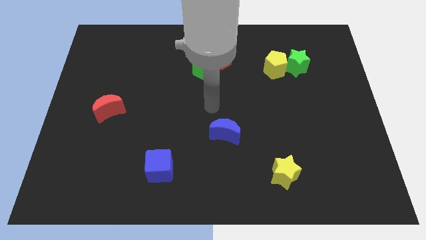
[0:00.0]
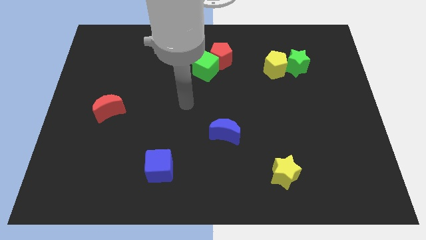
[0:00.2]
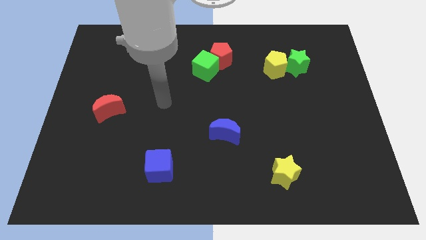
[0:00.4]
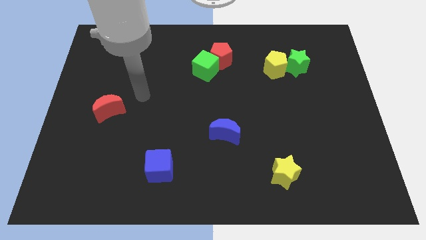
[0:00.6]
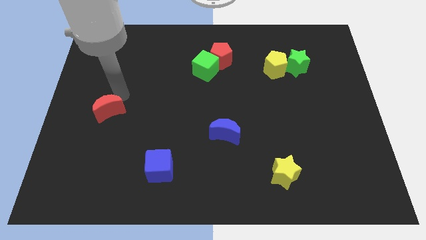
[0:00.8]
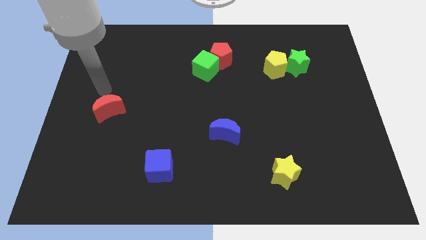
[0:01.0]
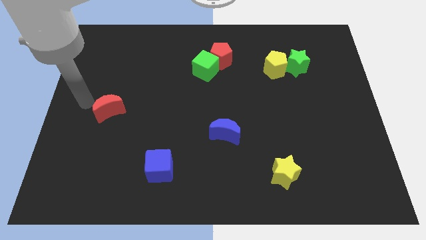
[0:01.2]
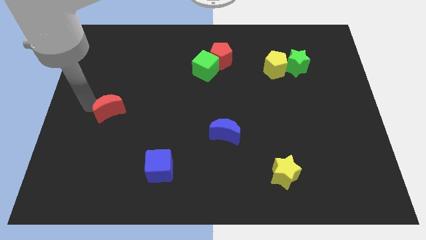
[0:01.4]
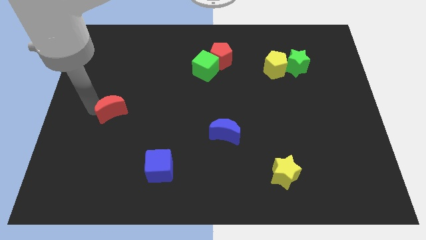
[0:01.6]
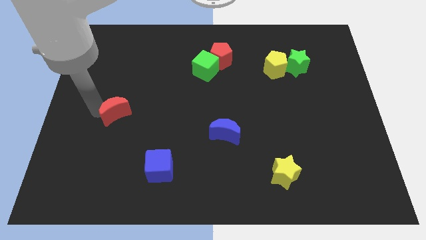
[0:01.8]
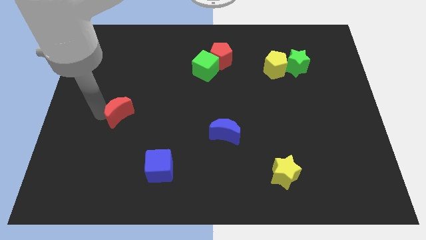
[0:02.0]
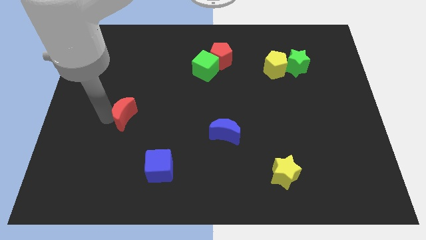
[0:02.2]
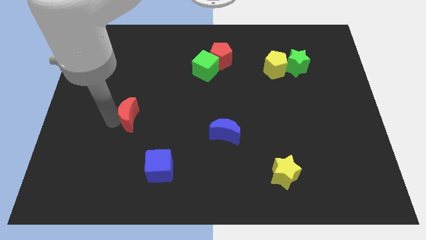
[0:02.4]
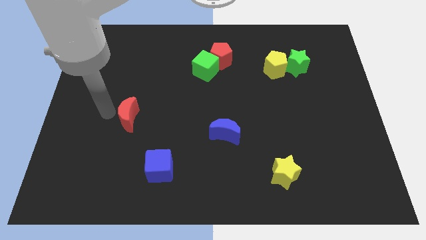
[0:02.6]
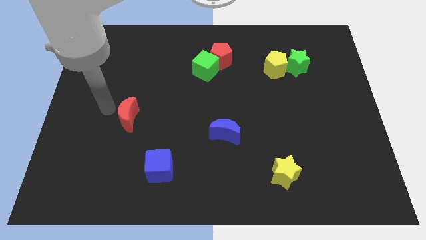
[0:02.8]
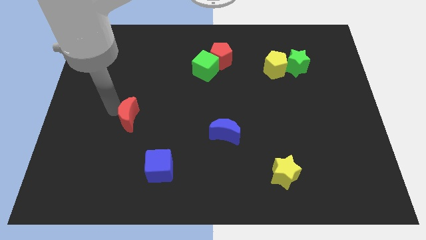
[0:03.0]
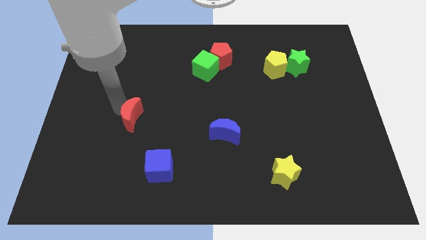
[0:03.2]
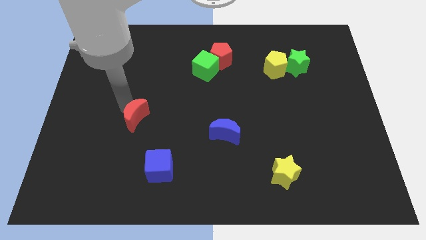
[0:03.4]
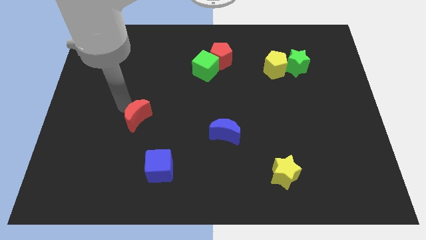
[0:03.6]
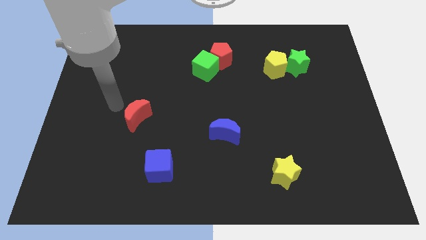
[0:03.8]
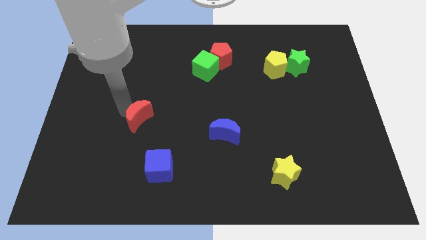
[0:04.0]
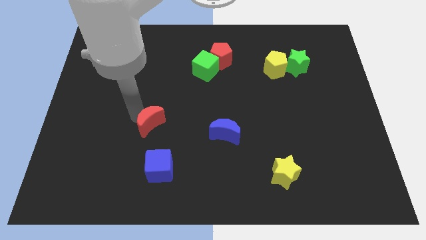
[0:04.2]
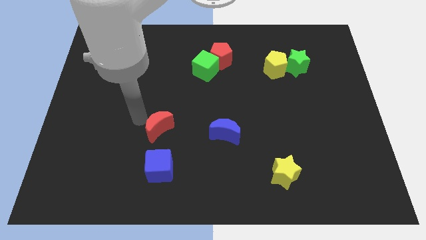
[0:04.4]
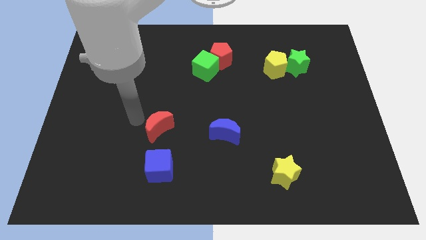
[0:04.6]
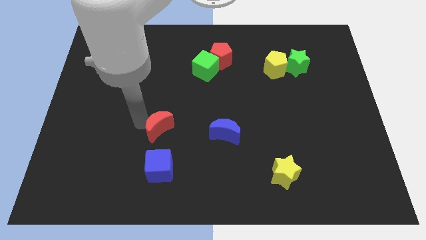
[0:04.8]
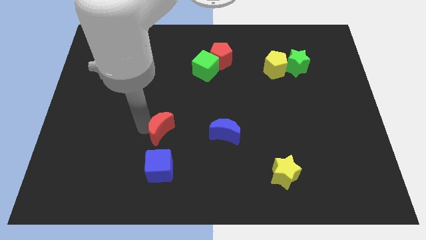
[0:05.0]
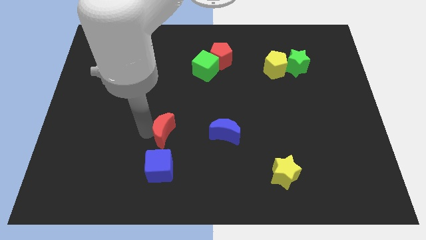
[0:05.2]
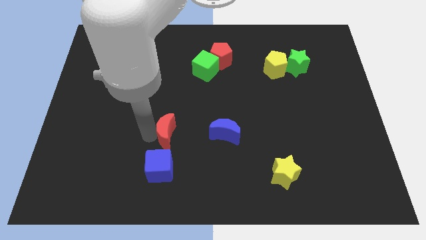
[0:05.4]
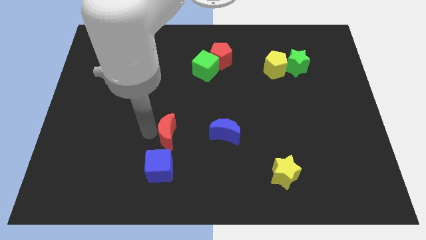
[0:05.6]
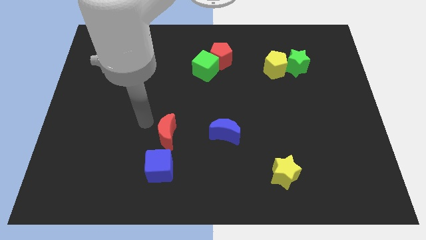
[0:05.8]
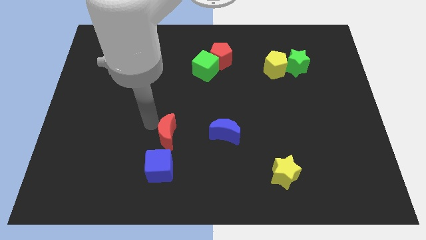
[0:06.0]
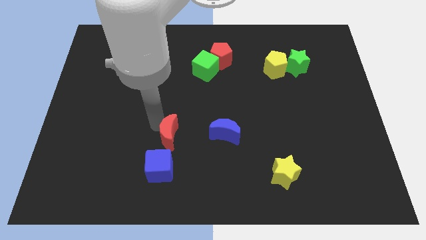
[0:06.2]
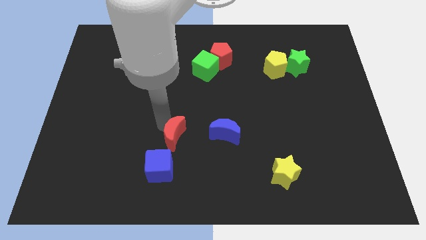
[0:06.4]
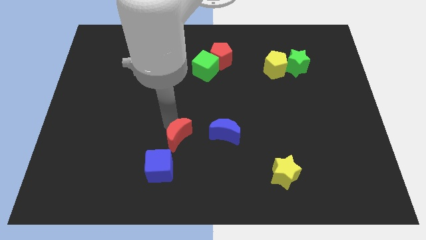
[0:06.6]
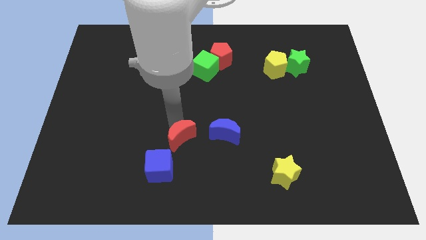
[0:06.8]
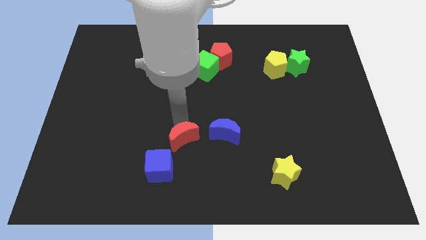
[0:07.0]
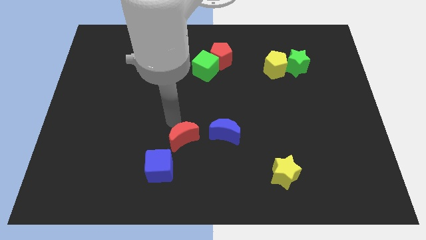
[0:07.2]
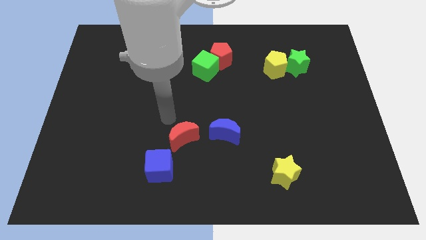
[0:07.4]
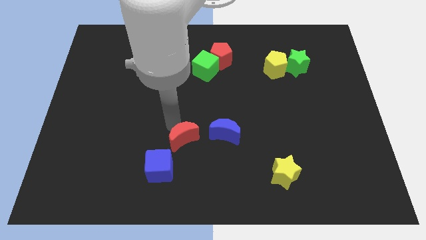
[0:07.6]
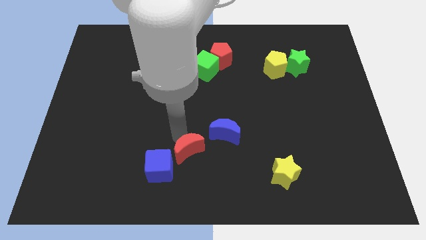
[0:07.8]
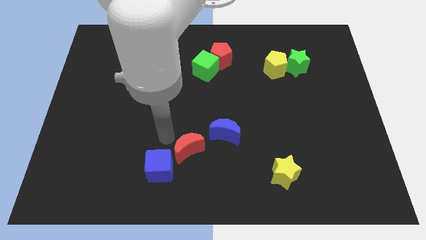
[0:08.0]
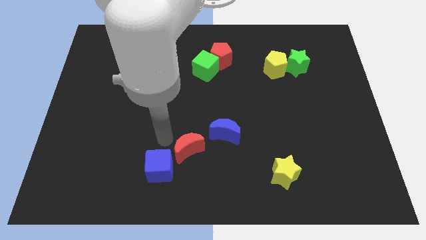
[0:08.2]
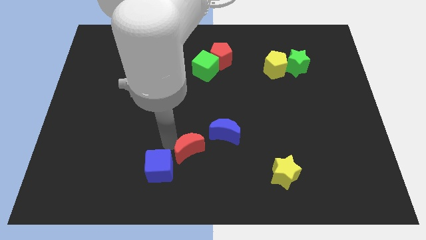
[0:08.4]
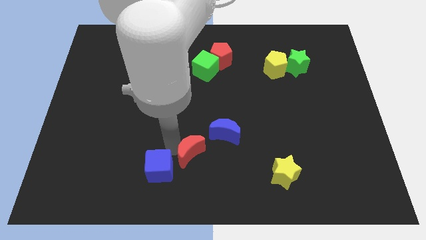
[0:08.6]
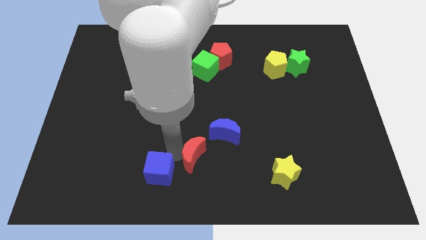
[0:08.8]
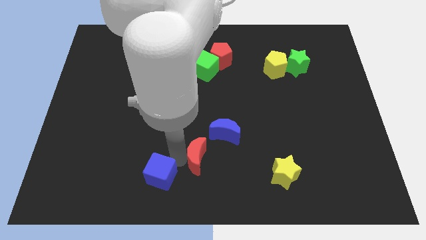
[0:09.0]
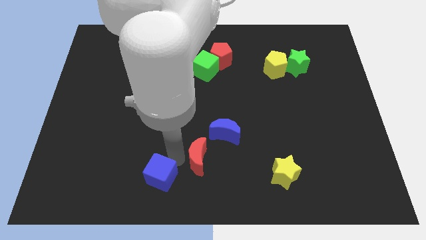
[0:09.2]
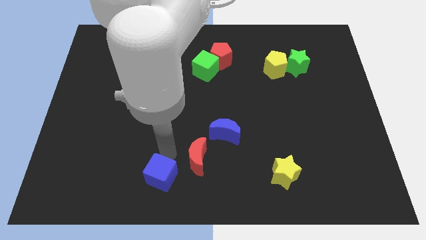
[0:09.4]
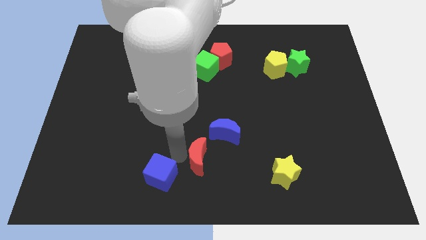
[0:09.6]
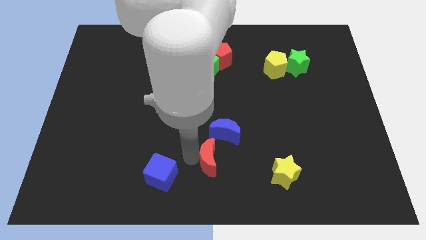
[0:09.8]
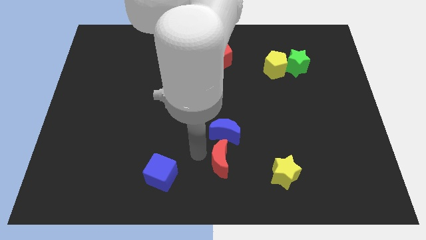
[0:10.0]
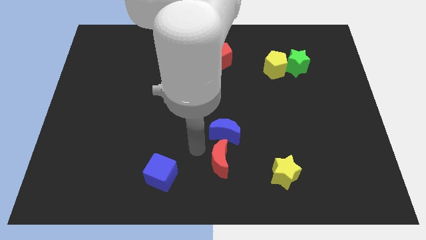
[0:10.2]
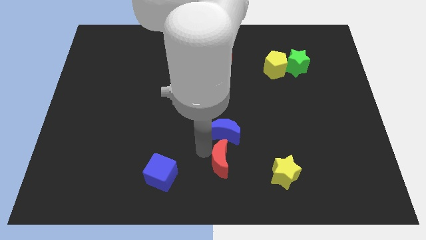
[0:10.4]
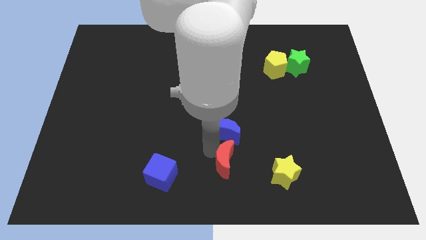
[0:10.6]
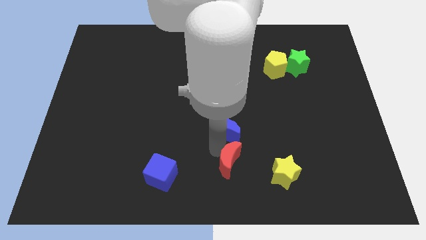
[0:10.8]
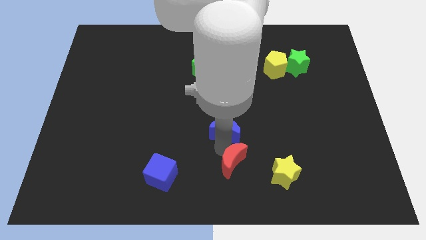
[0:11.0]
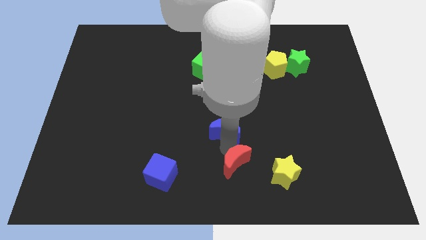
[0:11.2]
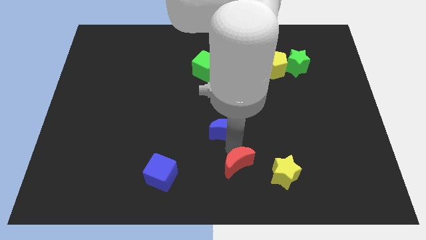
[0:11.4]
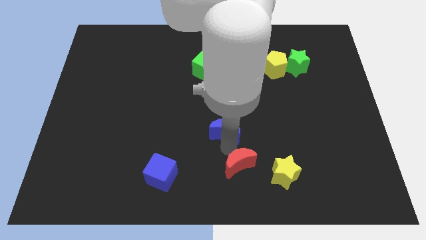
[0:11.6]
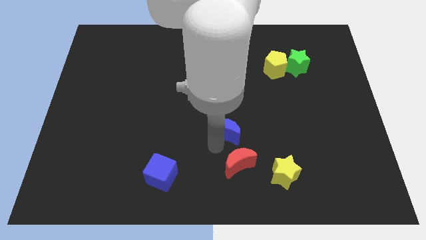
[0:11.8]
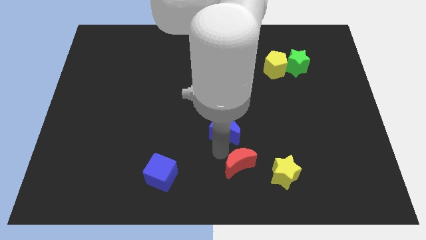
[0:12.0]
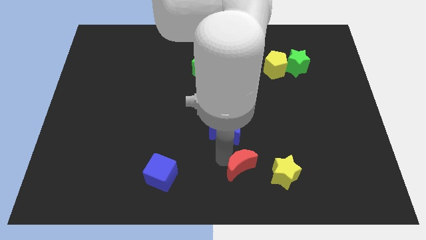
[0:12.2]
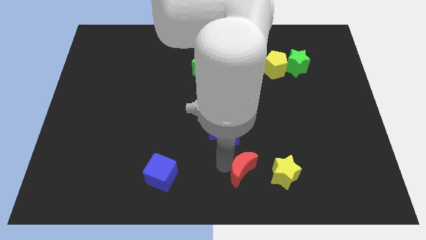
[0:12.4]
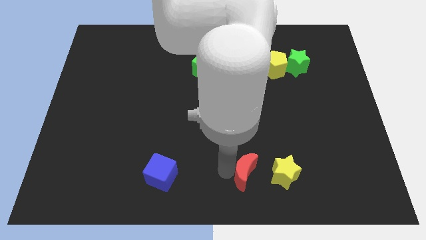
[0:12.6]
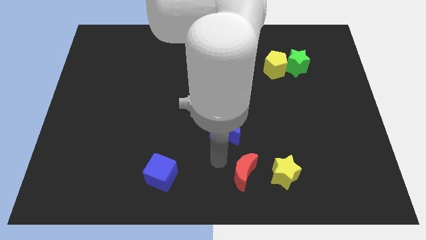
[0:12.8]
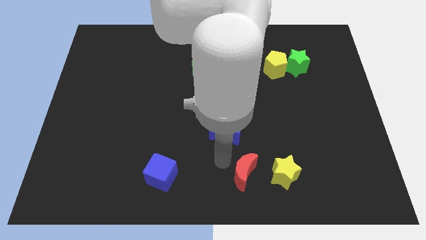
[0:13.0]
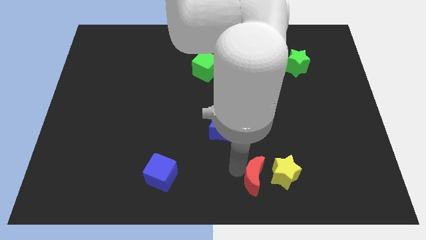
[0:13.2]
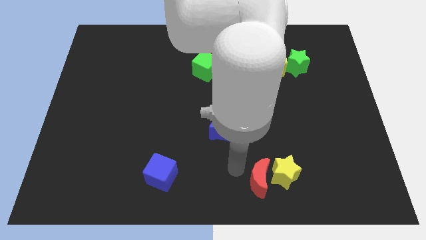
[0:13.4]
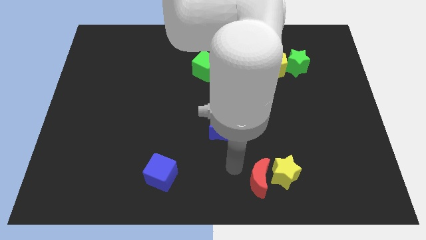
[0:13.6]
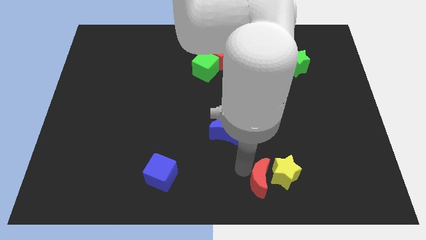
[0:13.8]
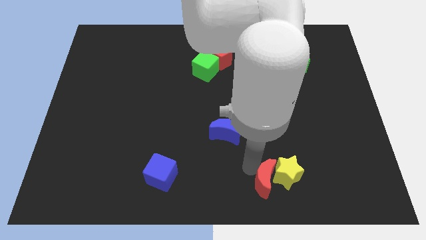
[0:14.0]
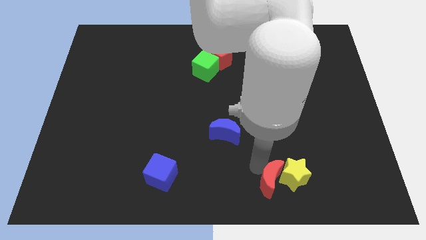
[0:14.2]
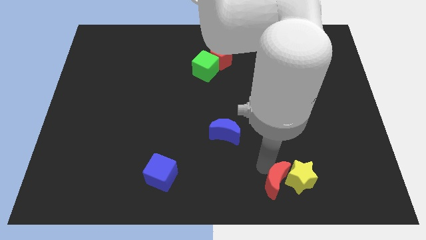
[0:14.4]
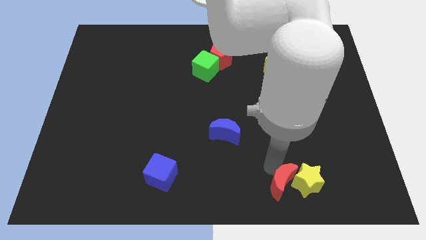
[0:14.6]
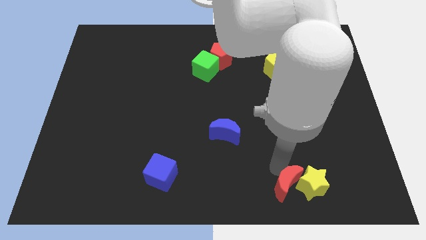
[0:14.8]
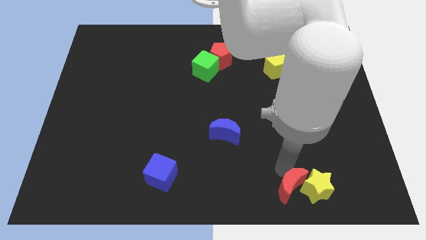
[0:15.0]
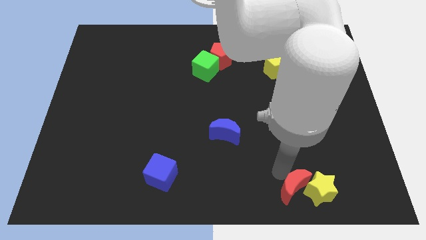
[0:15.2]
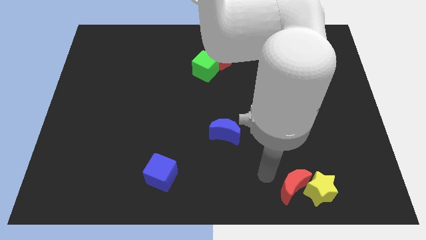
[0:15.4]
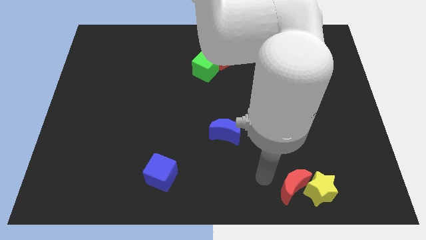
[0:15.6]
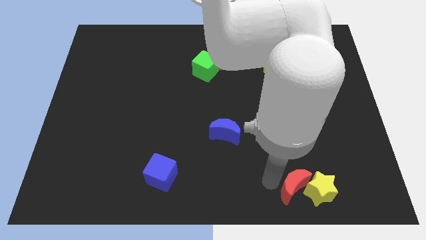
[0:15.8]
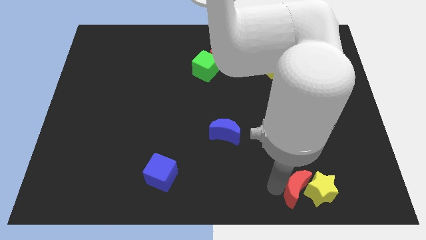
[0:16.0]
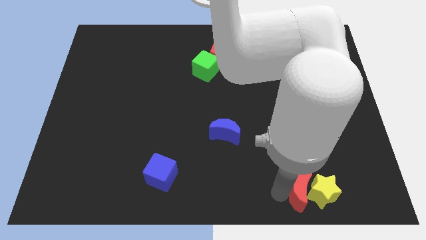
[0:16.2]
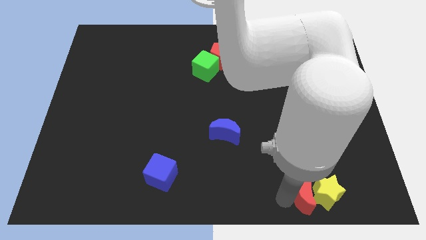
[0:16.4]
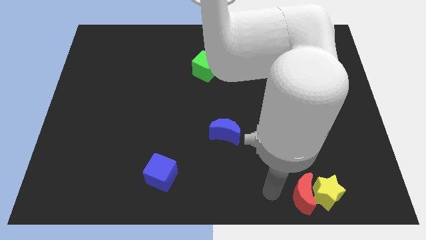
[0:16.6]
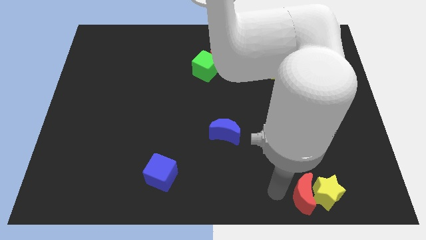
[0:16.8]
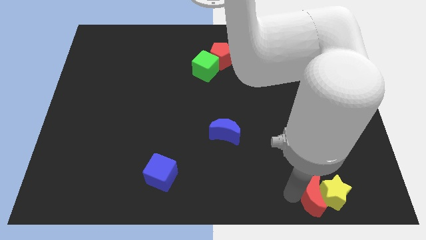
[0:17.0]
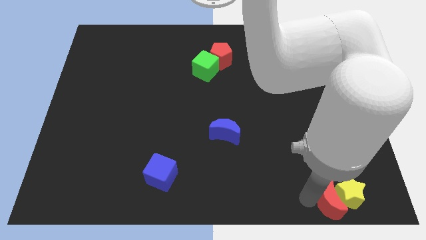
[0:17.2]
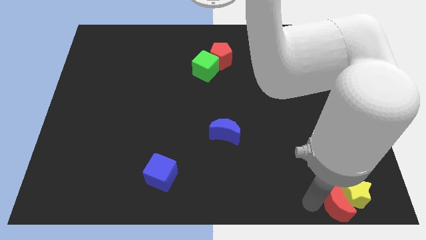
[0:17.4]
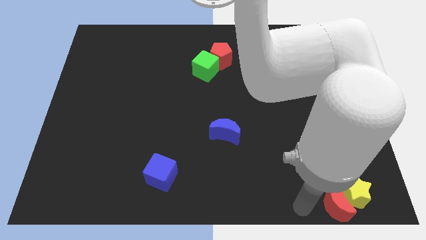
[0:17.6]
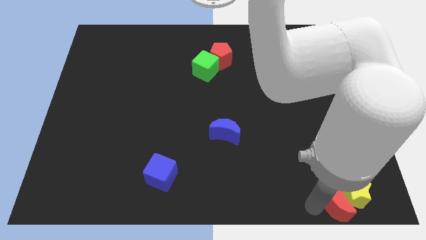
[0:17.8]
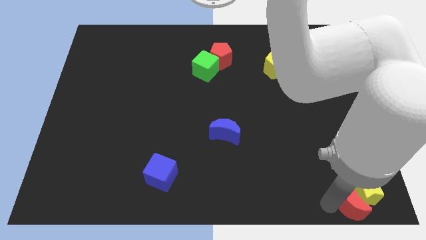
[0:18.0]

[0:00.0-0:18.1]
push the red moon to the lower right corner
